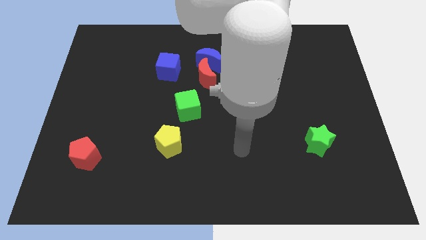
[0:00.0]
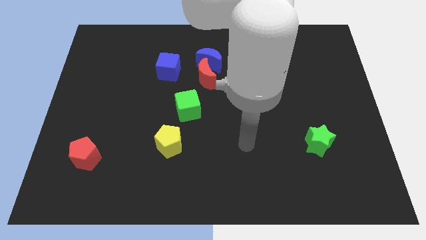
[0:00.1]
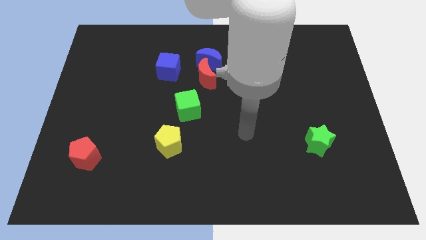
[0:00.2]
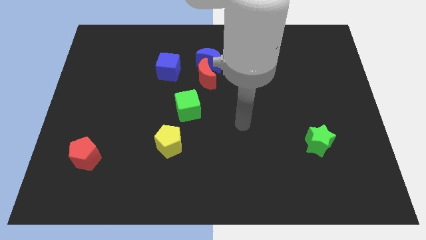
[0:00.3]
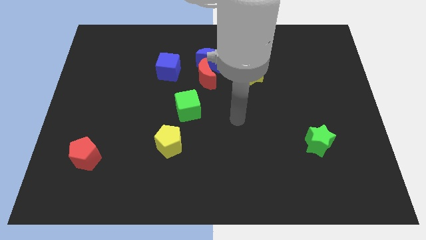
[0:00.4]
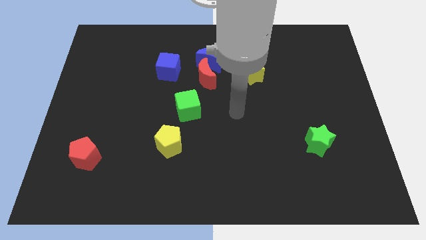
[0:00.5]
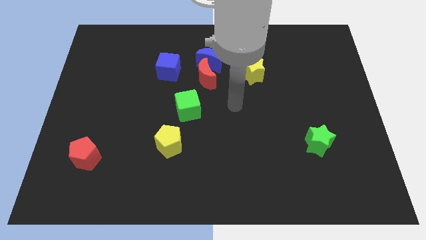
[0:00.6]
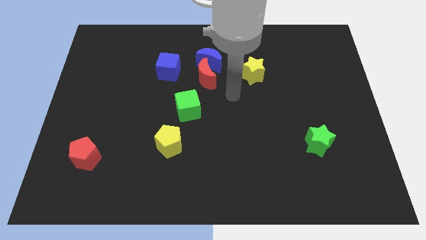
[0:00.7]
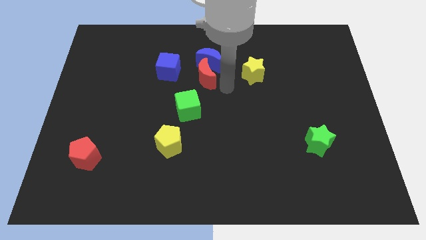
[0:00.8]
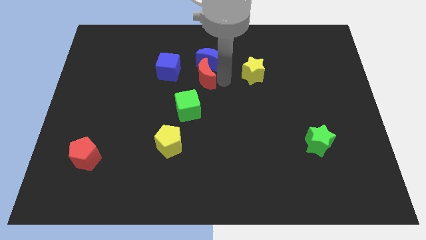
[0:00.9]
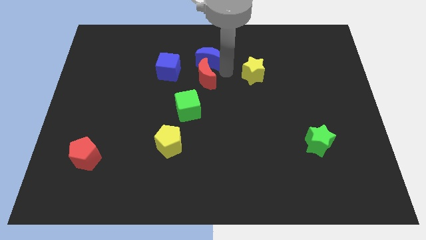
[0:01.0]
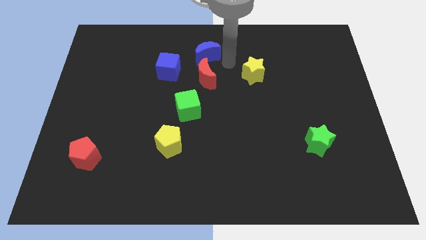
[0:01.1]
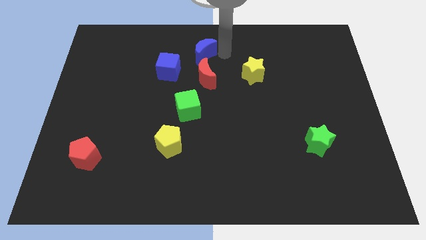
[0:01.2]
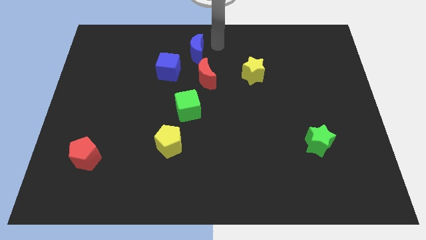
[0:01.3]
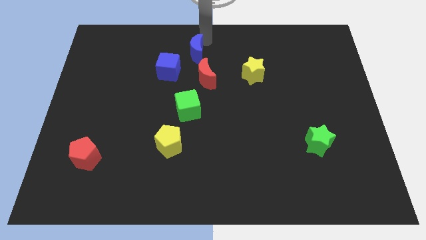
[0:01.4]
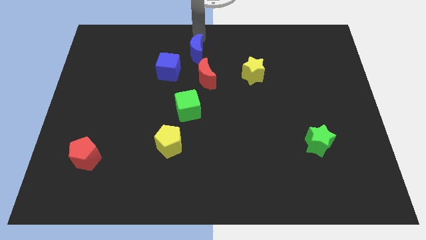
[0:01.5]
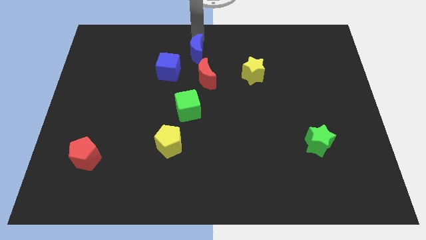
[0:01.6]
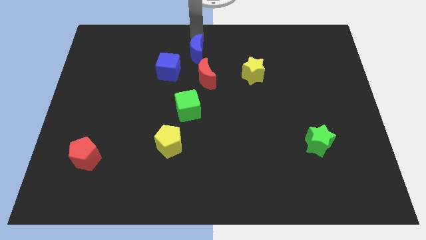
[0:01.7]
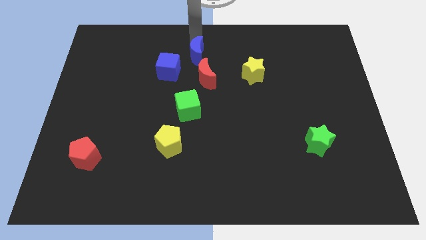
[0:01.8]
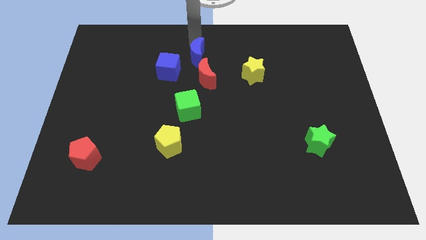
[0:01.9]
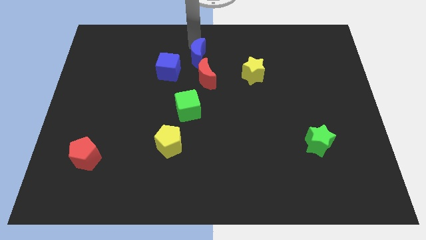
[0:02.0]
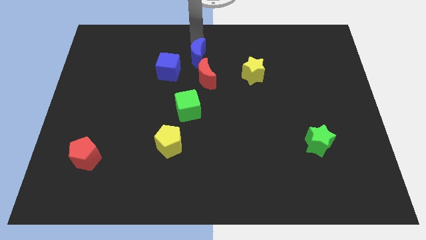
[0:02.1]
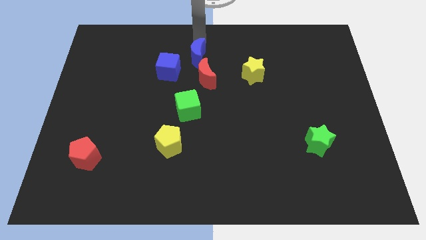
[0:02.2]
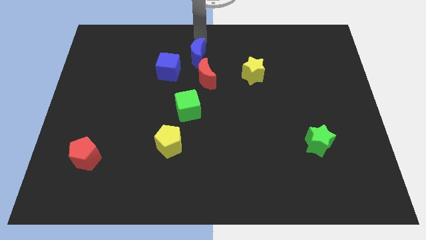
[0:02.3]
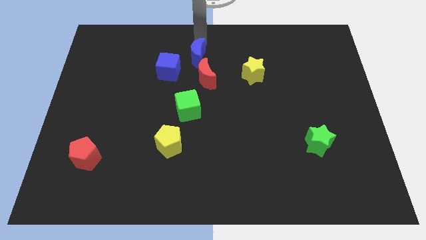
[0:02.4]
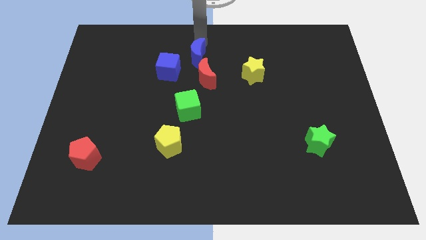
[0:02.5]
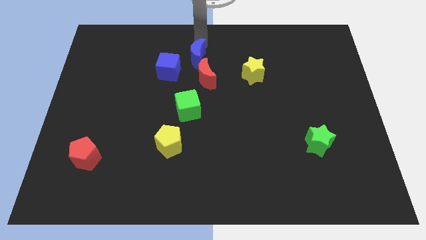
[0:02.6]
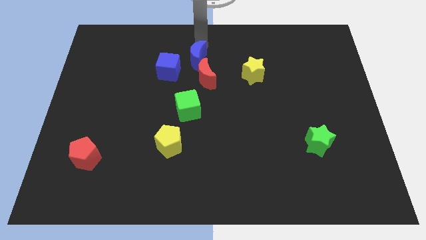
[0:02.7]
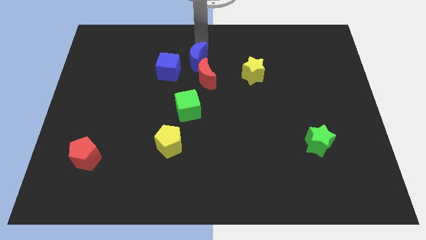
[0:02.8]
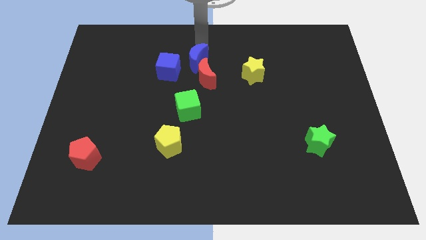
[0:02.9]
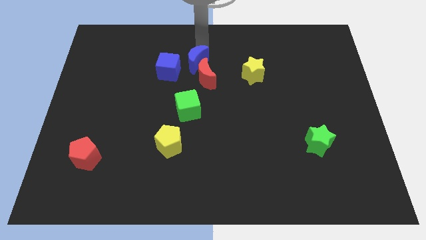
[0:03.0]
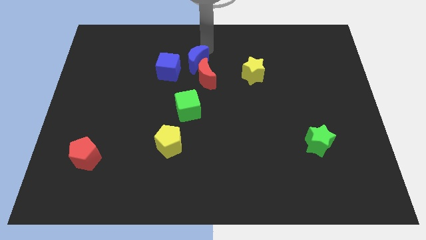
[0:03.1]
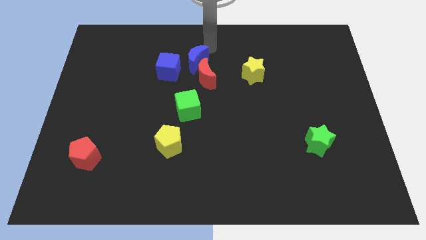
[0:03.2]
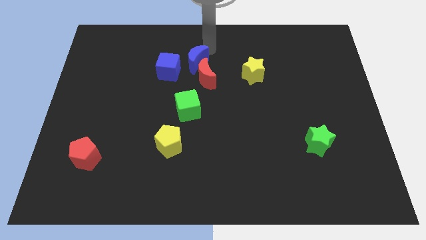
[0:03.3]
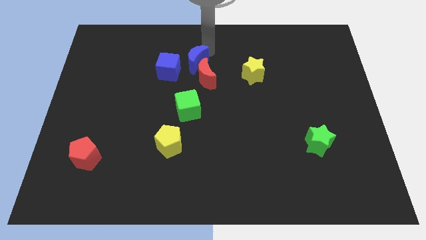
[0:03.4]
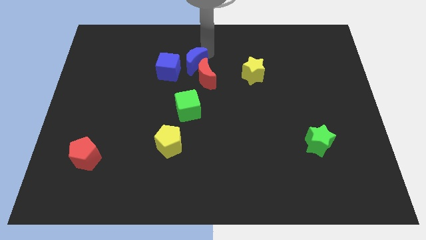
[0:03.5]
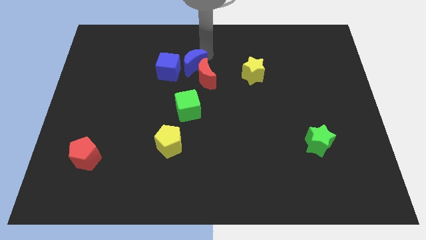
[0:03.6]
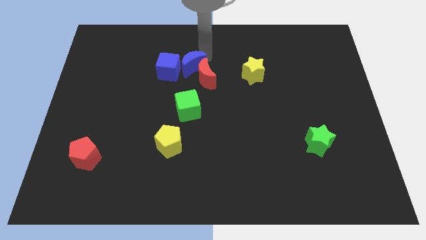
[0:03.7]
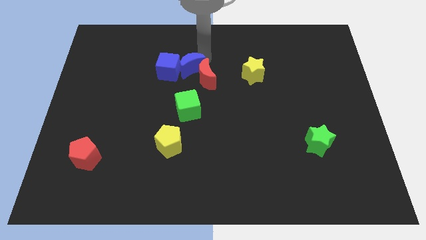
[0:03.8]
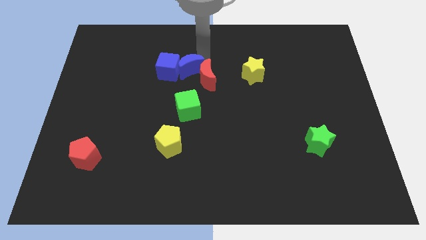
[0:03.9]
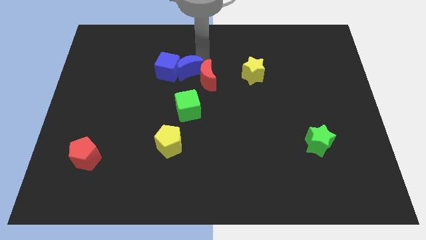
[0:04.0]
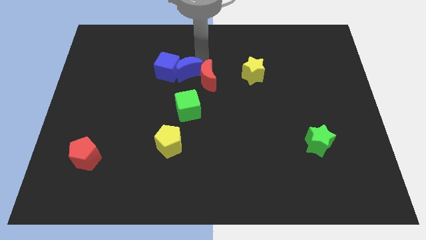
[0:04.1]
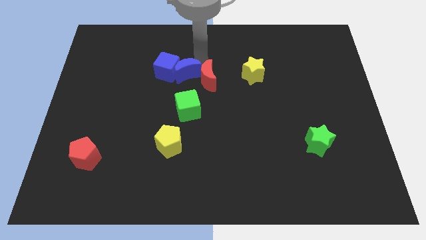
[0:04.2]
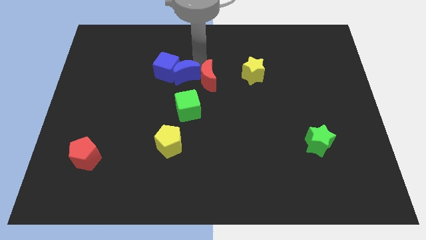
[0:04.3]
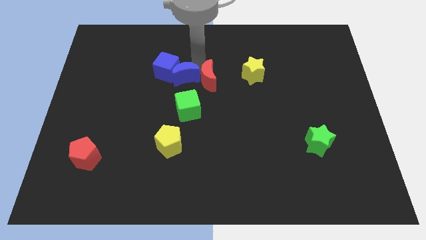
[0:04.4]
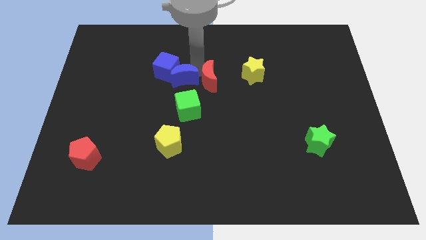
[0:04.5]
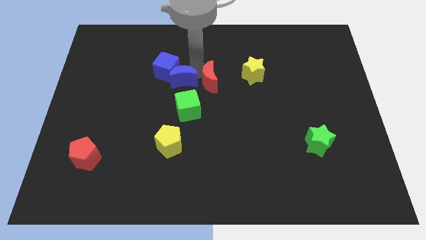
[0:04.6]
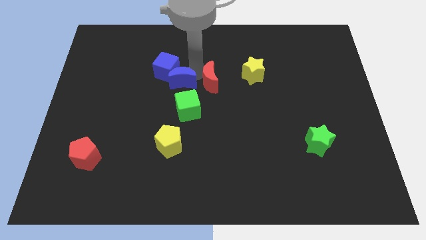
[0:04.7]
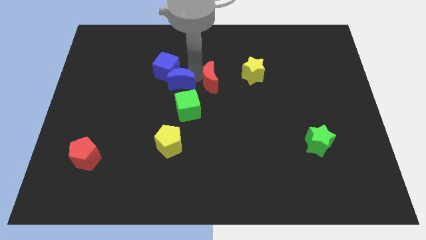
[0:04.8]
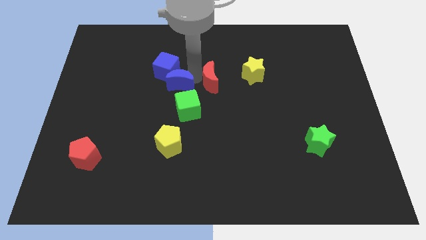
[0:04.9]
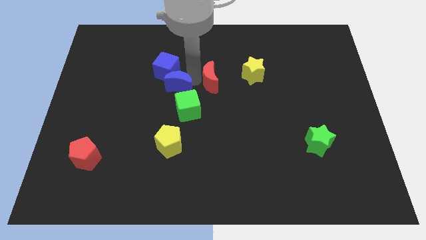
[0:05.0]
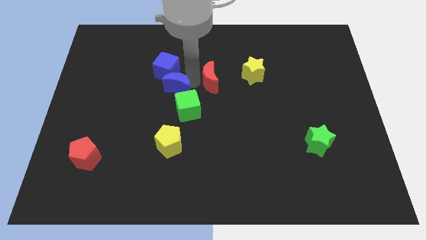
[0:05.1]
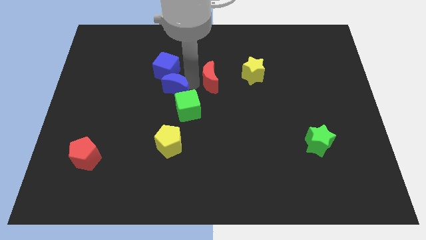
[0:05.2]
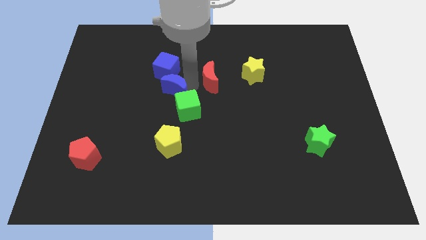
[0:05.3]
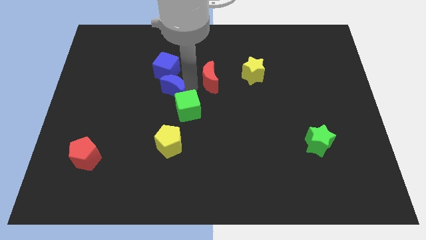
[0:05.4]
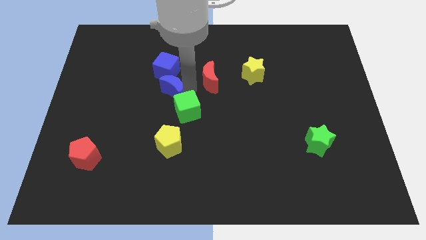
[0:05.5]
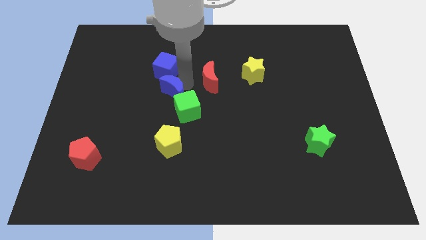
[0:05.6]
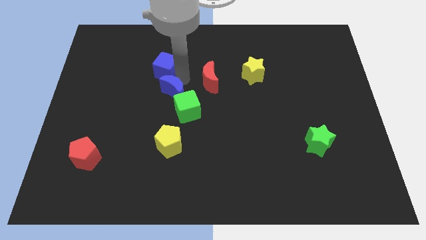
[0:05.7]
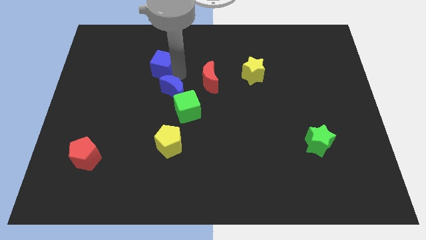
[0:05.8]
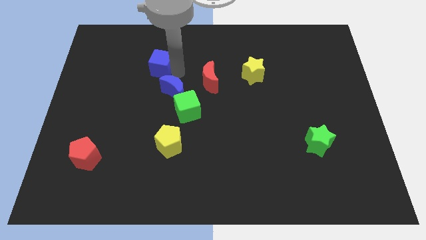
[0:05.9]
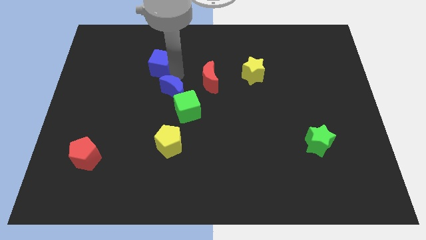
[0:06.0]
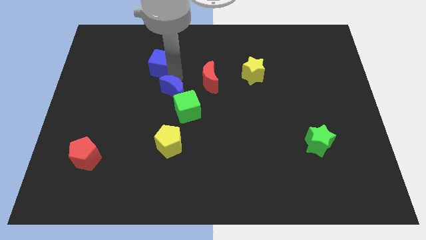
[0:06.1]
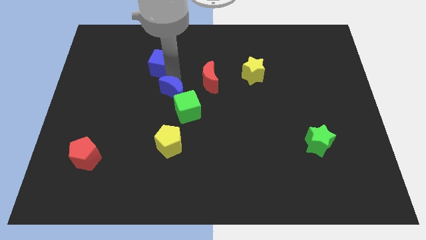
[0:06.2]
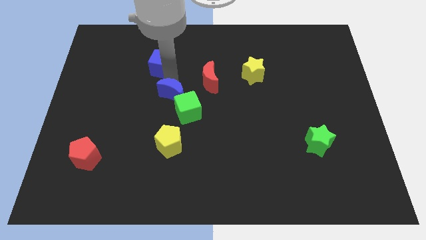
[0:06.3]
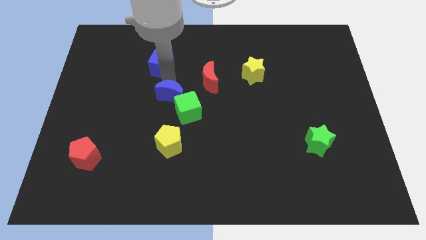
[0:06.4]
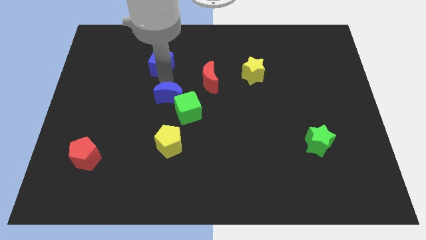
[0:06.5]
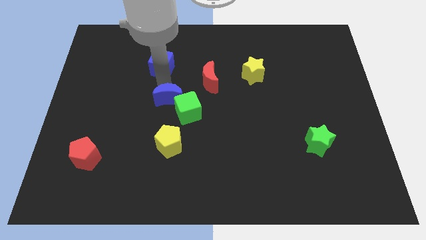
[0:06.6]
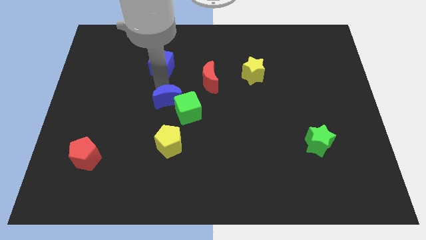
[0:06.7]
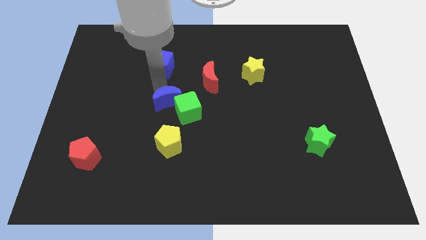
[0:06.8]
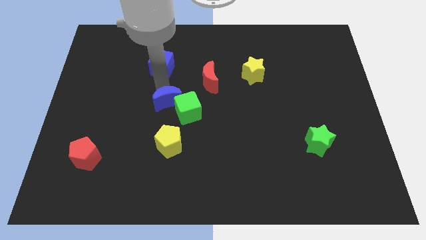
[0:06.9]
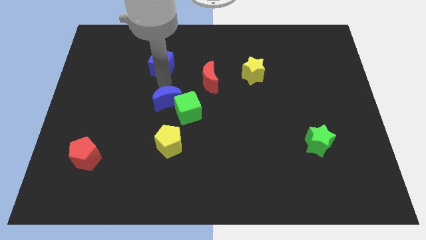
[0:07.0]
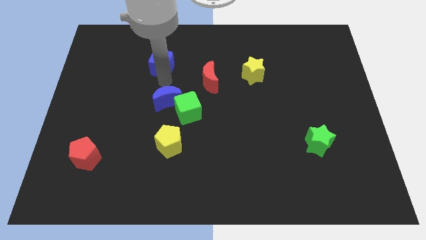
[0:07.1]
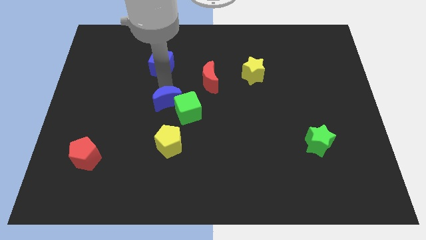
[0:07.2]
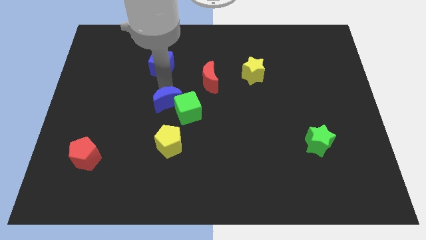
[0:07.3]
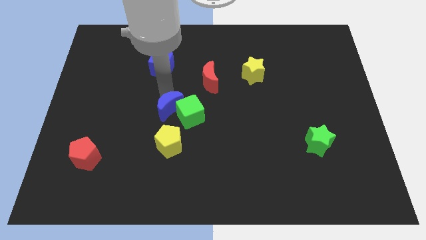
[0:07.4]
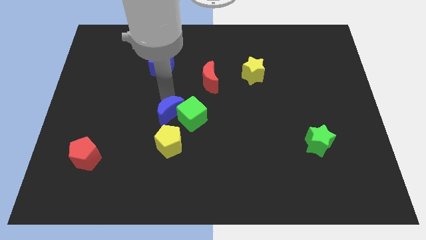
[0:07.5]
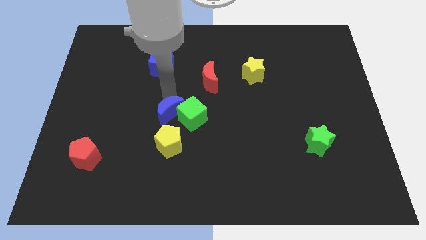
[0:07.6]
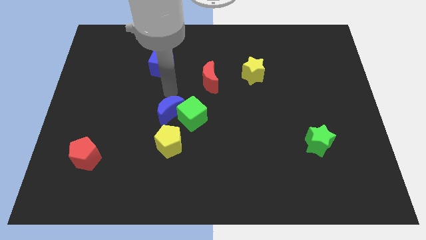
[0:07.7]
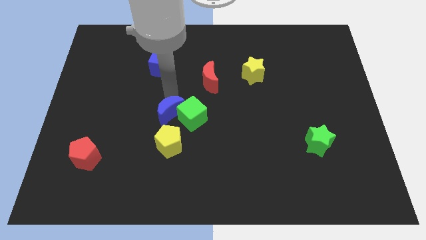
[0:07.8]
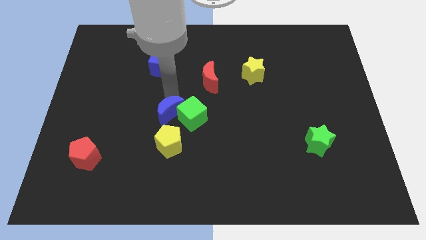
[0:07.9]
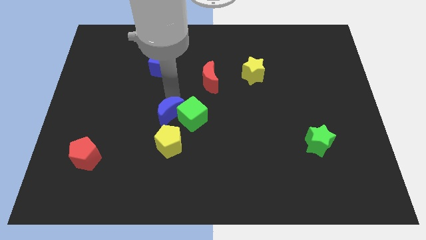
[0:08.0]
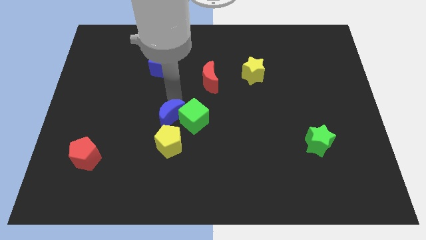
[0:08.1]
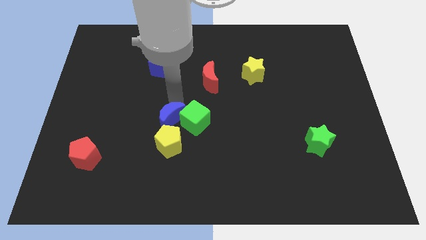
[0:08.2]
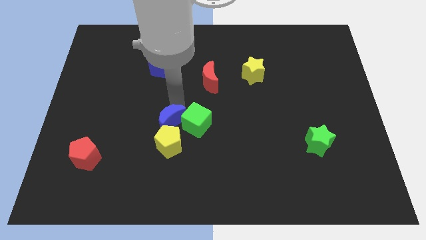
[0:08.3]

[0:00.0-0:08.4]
slide the blue moon to the yellow pentagon
